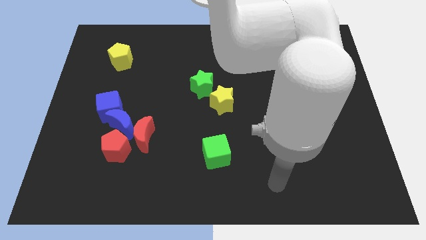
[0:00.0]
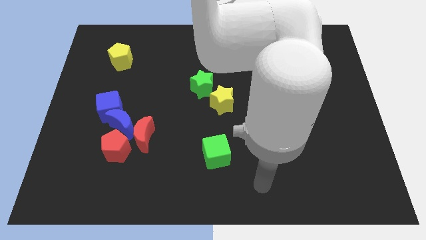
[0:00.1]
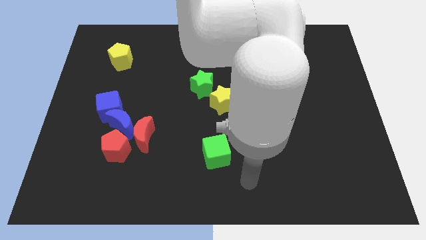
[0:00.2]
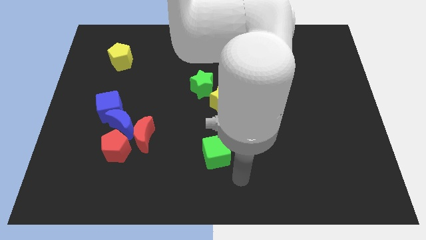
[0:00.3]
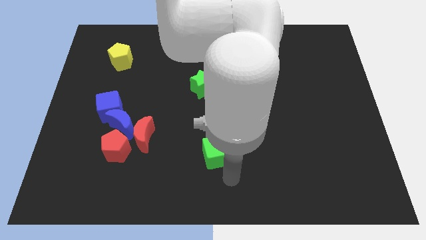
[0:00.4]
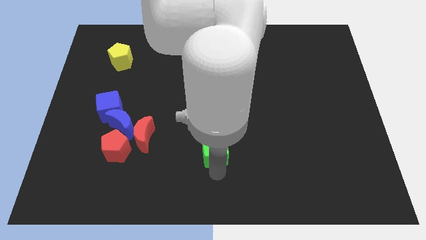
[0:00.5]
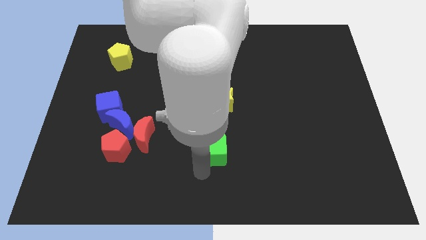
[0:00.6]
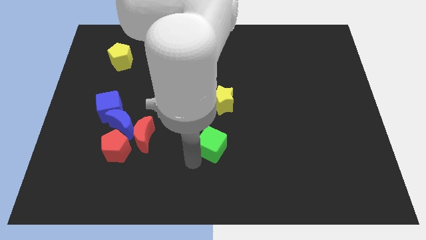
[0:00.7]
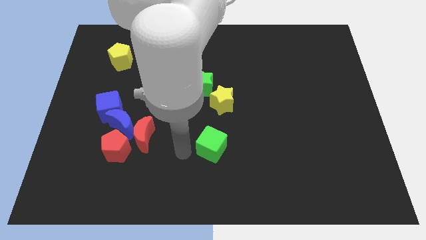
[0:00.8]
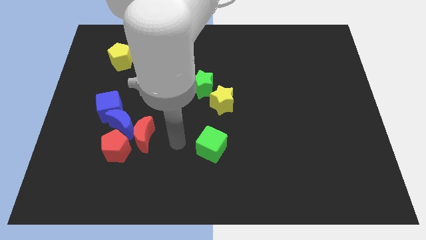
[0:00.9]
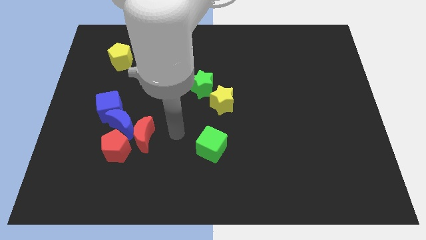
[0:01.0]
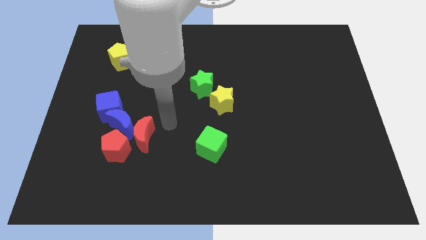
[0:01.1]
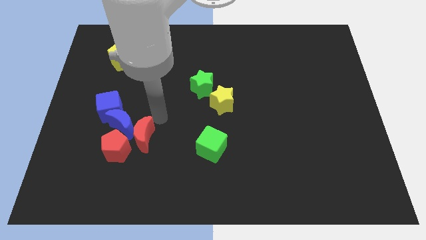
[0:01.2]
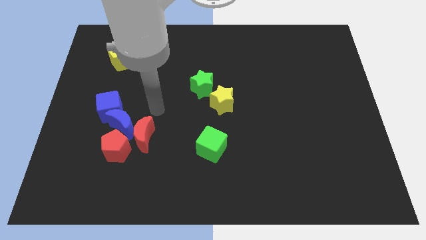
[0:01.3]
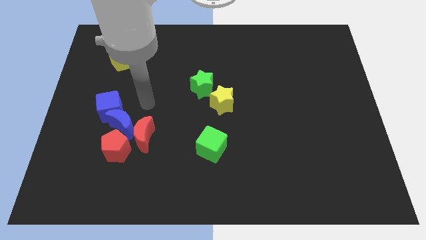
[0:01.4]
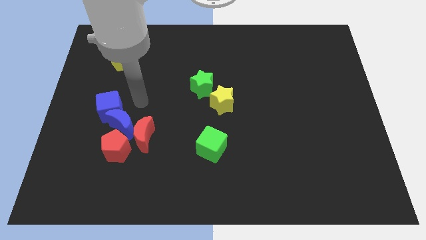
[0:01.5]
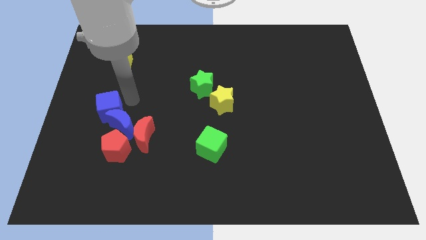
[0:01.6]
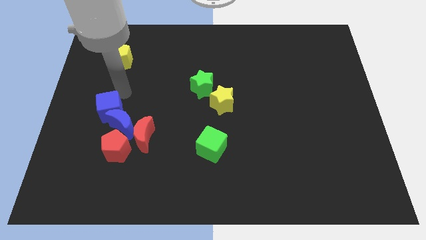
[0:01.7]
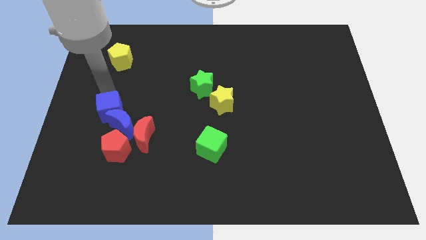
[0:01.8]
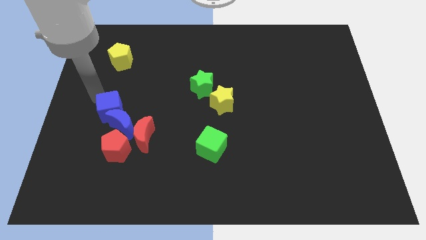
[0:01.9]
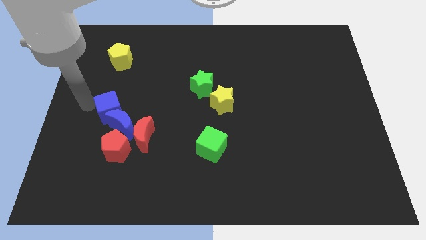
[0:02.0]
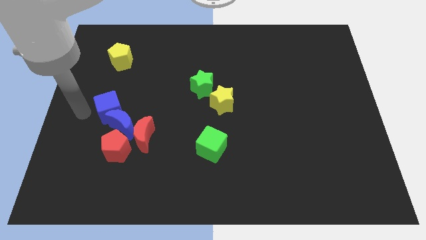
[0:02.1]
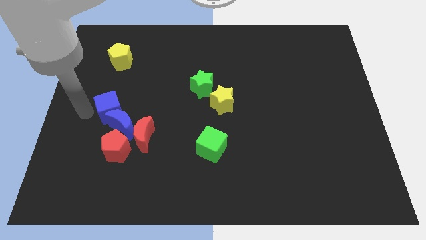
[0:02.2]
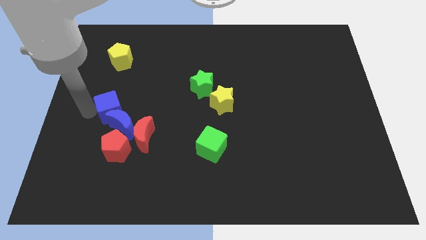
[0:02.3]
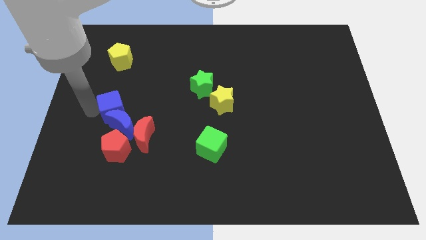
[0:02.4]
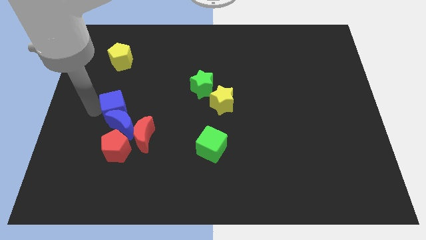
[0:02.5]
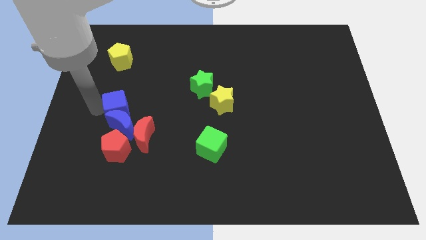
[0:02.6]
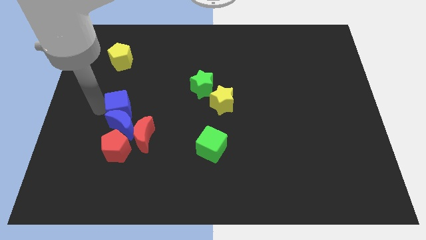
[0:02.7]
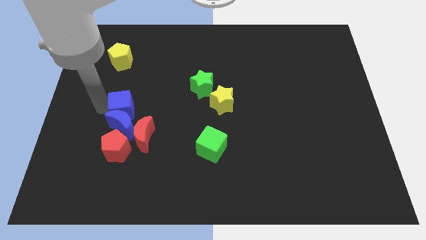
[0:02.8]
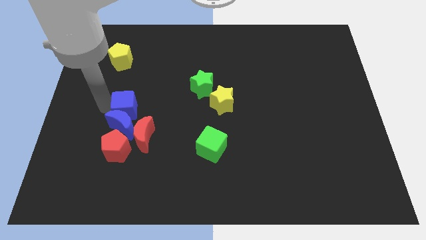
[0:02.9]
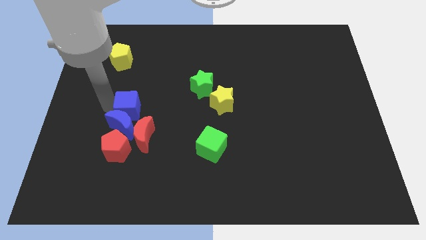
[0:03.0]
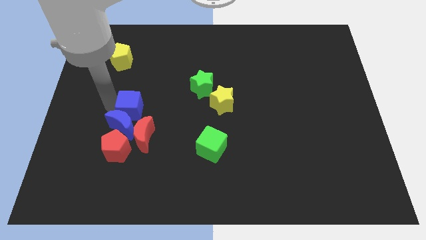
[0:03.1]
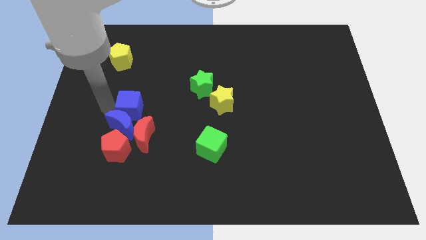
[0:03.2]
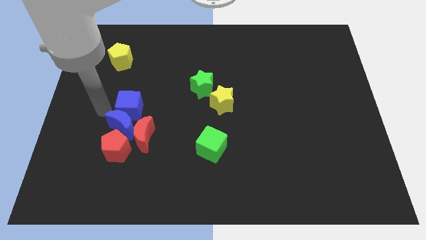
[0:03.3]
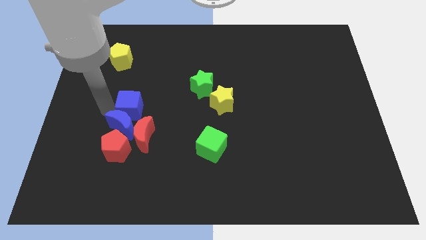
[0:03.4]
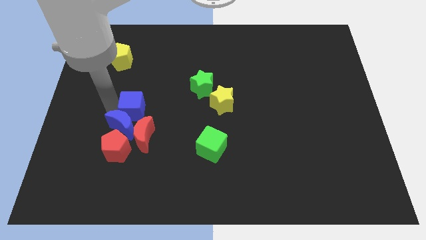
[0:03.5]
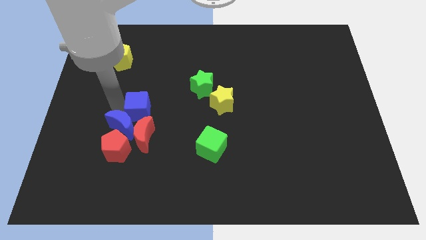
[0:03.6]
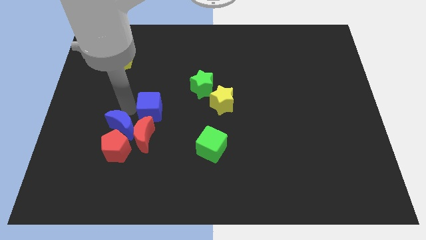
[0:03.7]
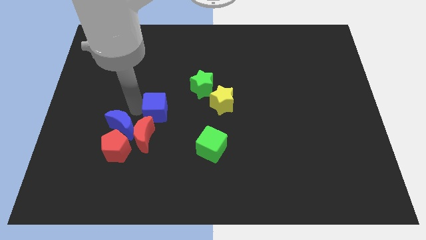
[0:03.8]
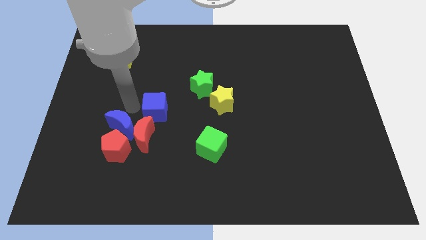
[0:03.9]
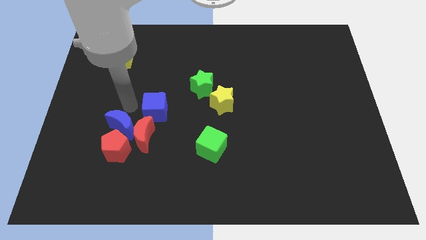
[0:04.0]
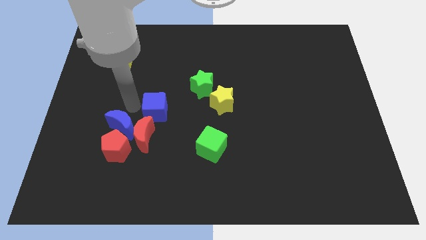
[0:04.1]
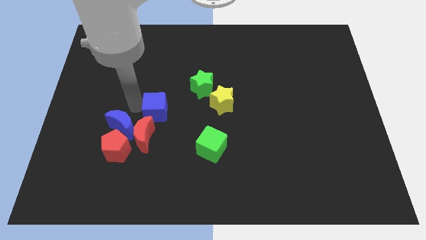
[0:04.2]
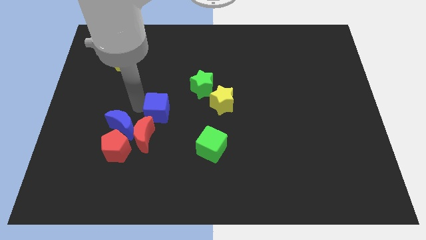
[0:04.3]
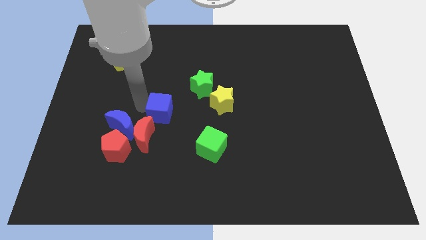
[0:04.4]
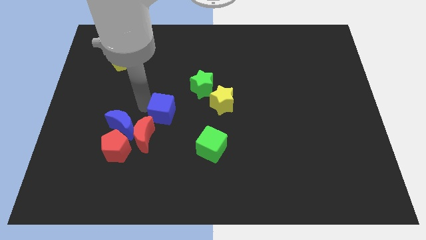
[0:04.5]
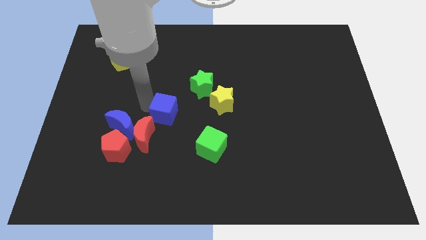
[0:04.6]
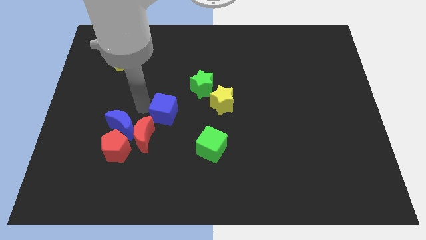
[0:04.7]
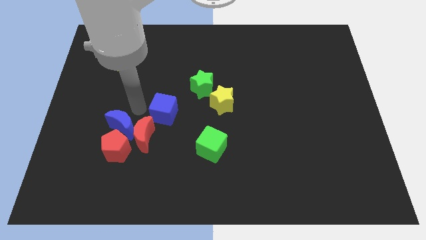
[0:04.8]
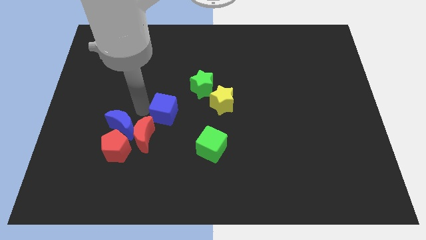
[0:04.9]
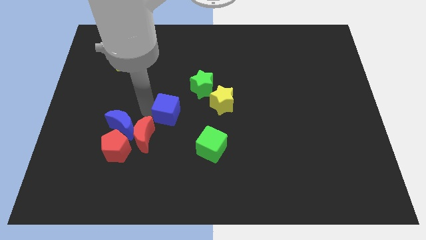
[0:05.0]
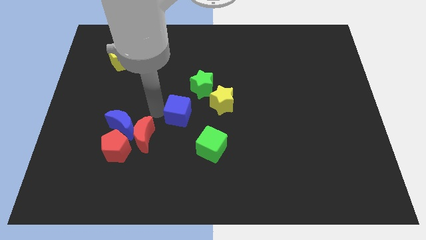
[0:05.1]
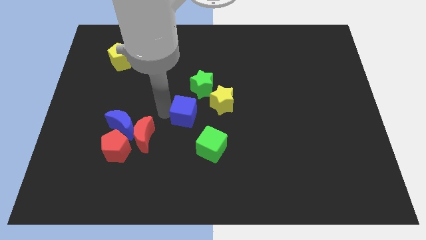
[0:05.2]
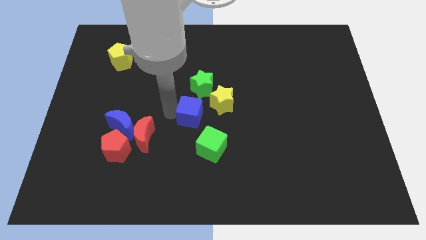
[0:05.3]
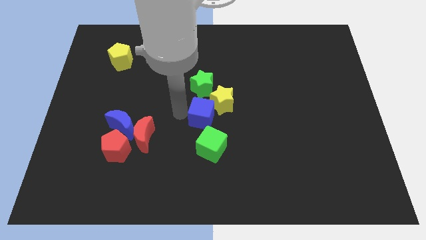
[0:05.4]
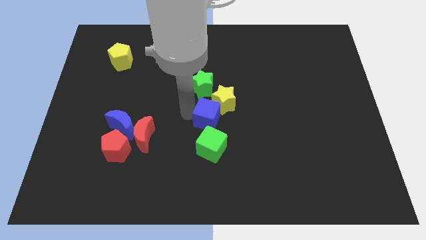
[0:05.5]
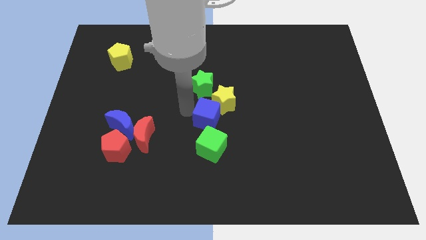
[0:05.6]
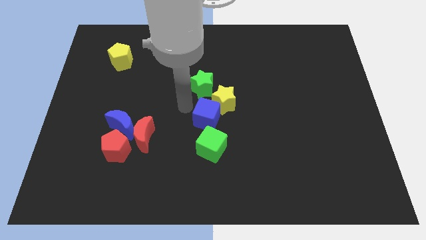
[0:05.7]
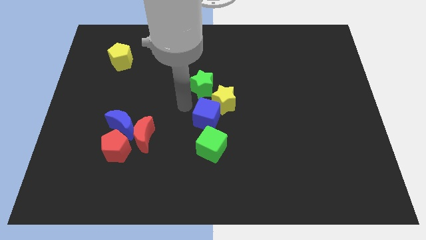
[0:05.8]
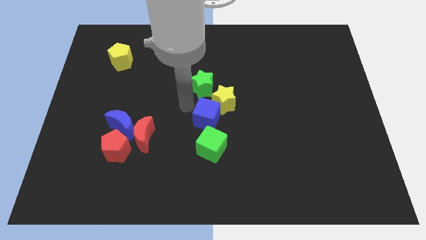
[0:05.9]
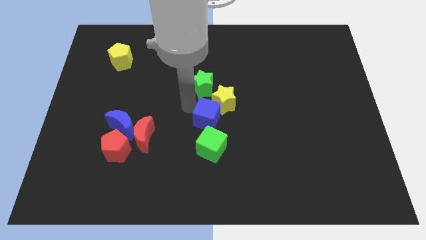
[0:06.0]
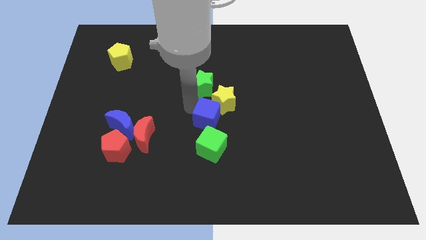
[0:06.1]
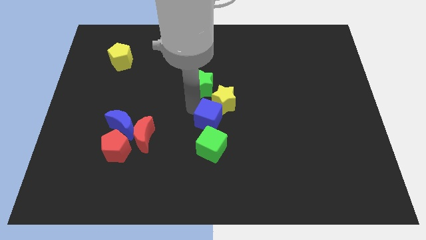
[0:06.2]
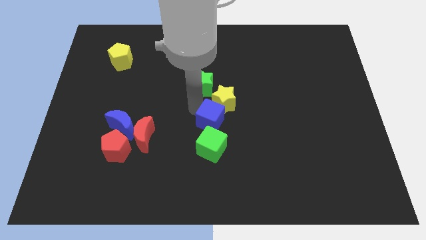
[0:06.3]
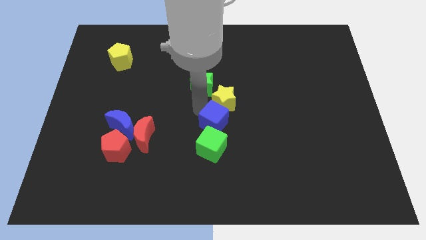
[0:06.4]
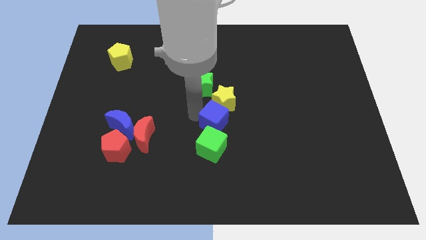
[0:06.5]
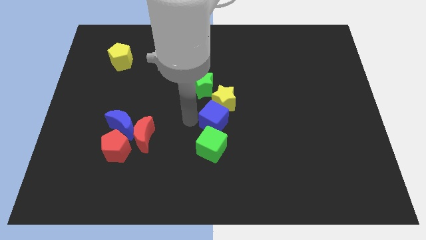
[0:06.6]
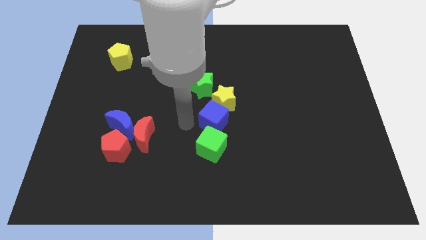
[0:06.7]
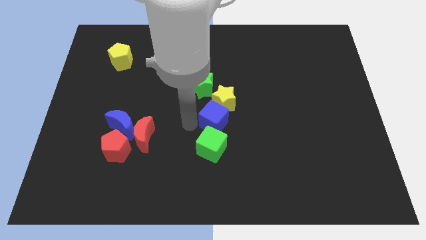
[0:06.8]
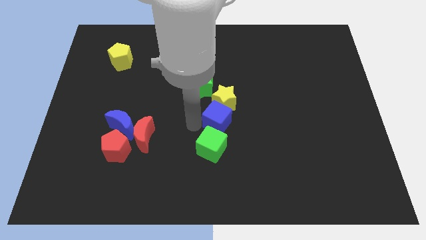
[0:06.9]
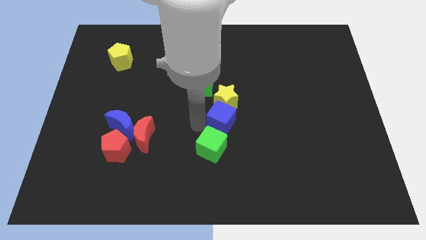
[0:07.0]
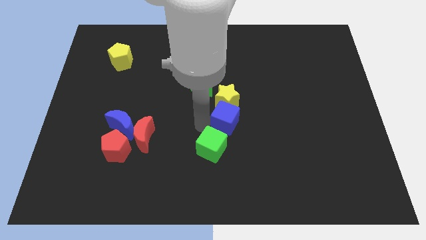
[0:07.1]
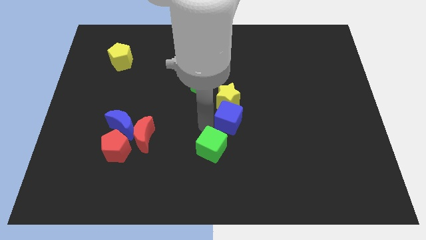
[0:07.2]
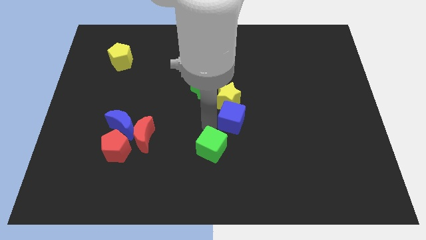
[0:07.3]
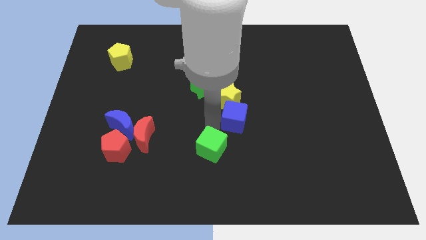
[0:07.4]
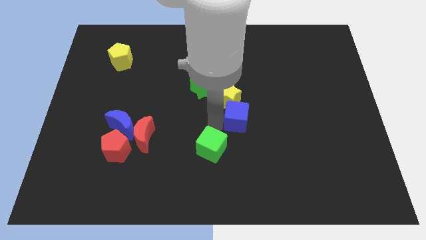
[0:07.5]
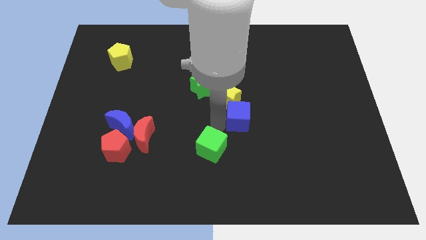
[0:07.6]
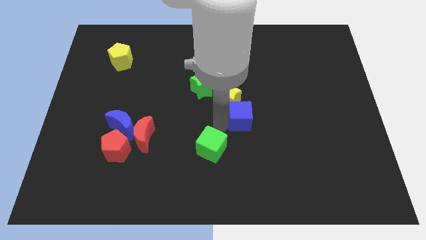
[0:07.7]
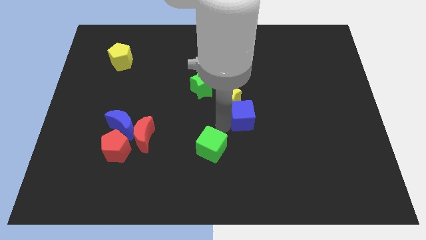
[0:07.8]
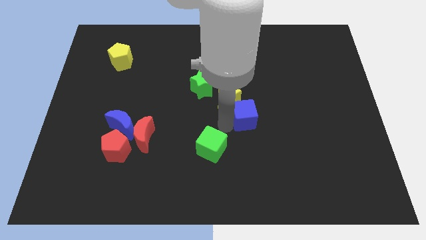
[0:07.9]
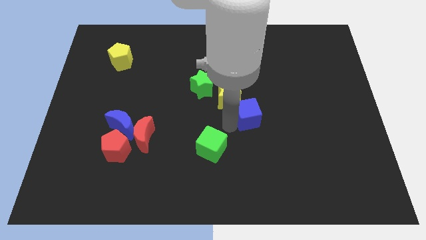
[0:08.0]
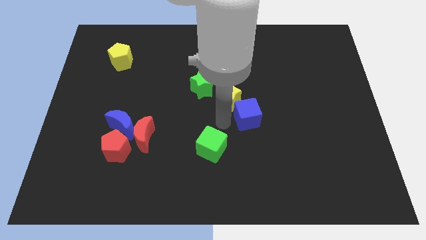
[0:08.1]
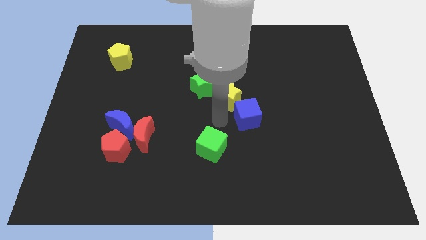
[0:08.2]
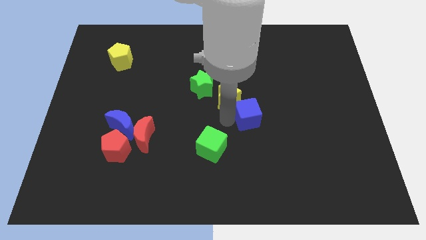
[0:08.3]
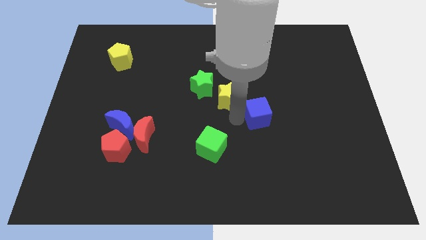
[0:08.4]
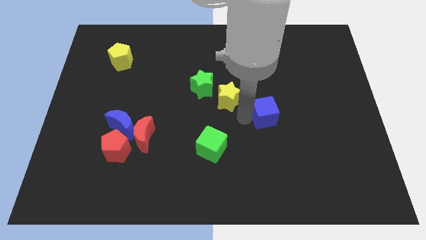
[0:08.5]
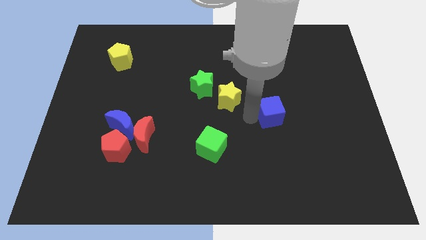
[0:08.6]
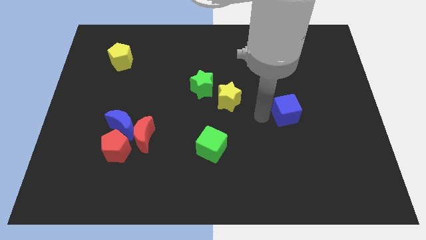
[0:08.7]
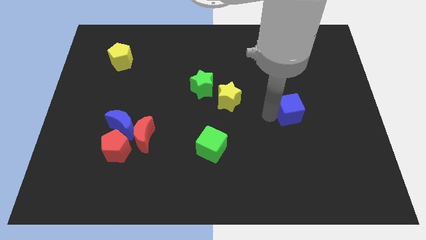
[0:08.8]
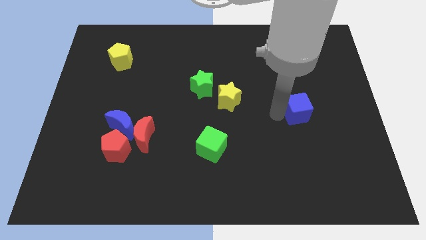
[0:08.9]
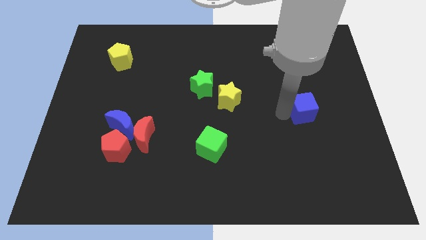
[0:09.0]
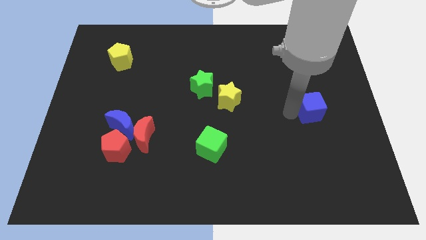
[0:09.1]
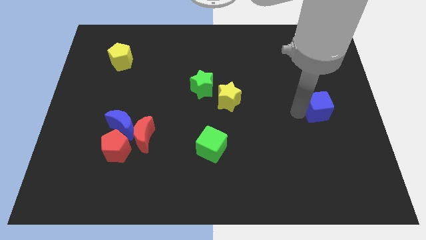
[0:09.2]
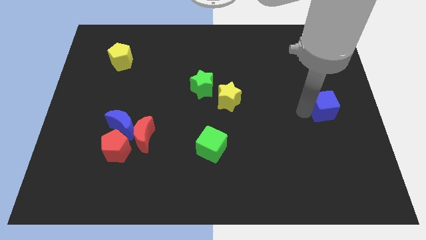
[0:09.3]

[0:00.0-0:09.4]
slide the blue cube to the right side
